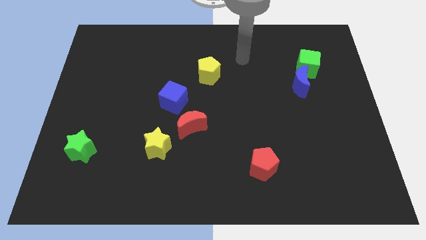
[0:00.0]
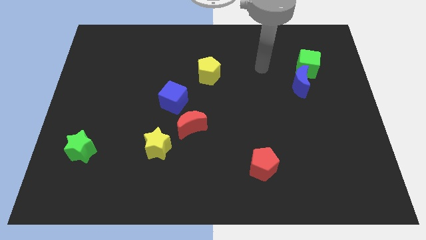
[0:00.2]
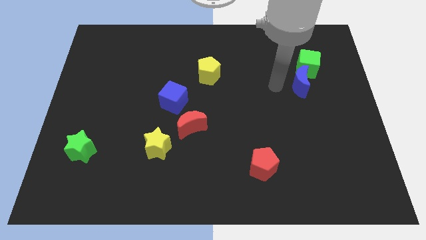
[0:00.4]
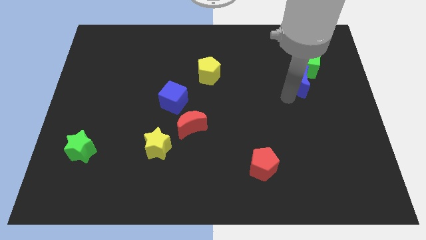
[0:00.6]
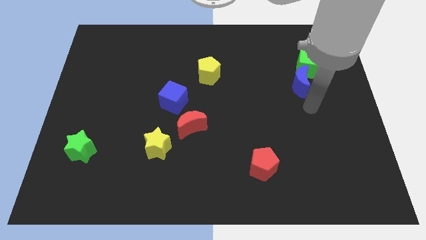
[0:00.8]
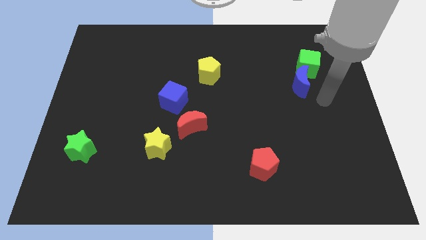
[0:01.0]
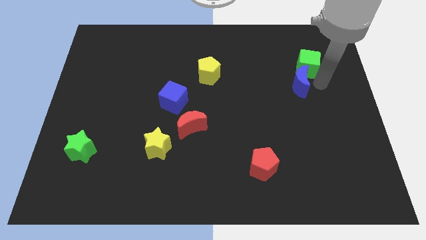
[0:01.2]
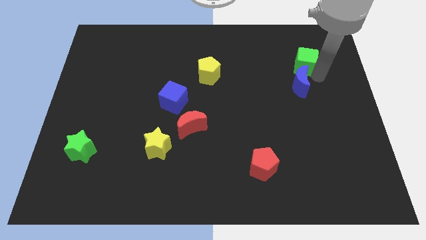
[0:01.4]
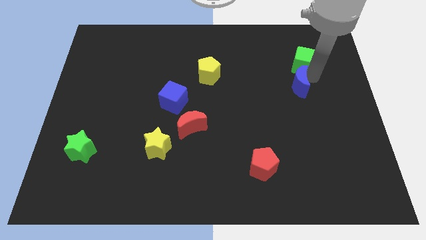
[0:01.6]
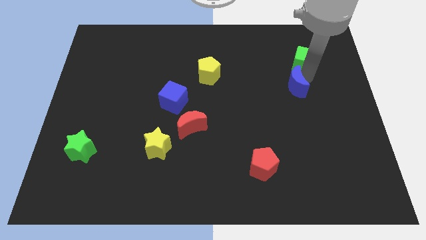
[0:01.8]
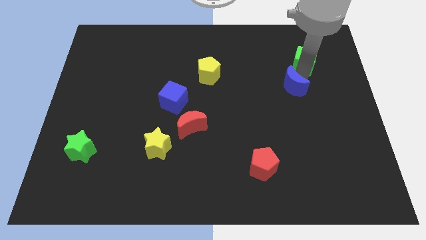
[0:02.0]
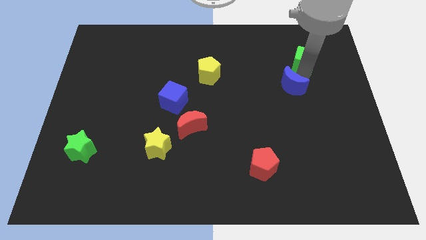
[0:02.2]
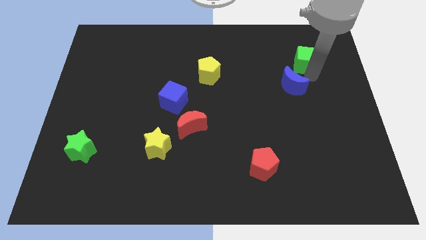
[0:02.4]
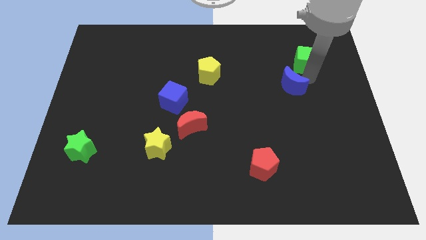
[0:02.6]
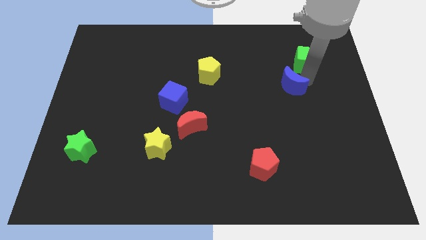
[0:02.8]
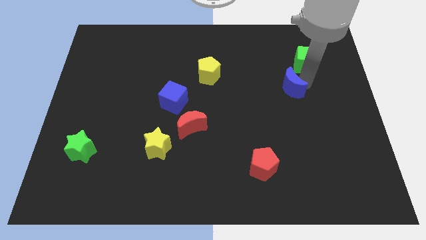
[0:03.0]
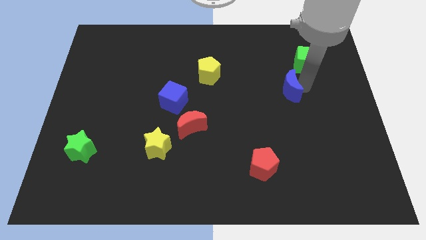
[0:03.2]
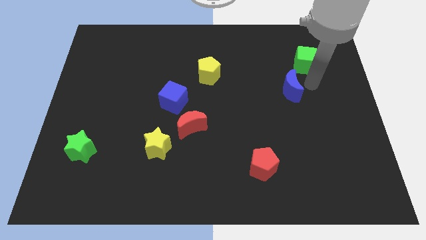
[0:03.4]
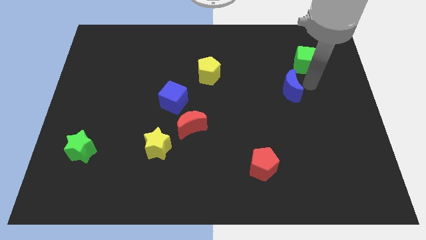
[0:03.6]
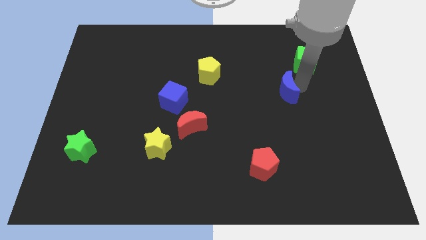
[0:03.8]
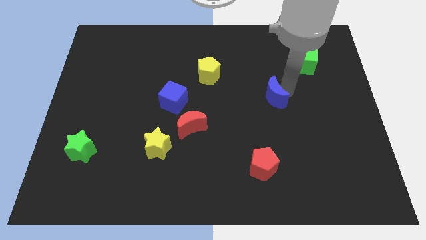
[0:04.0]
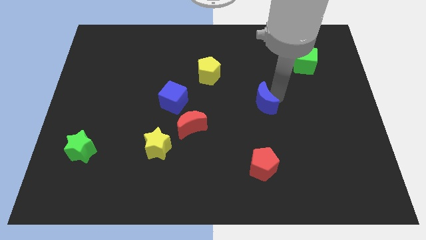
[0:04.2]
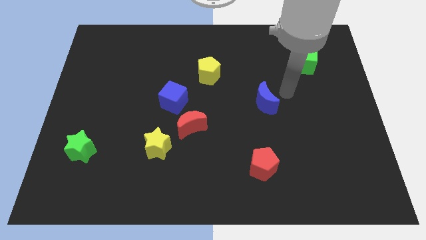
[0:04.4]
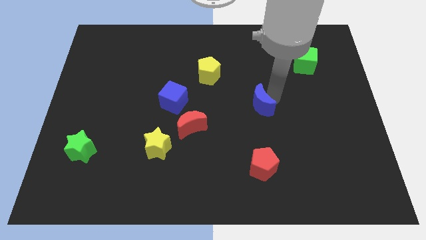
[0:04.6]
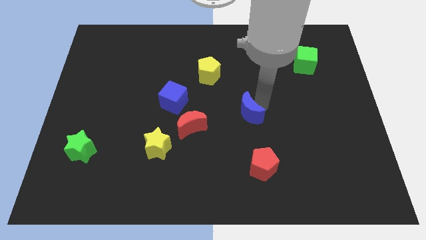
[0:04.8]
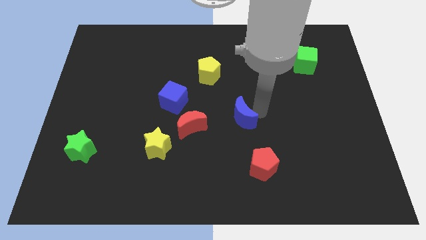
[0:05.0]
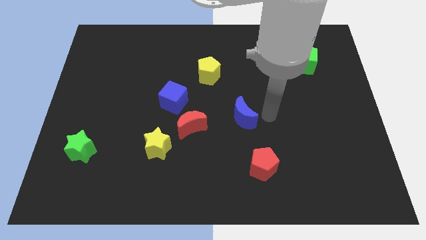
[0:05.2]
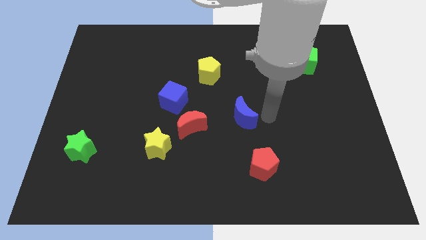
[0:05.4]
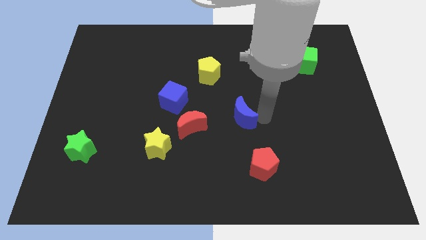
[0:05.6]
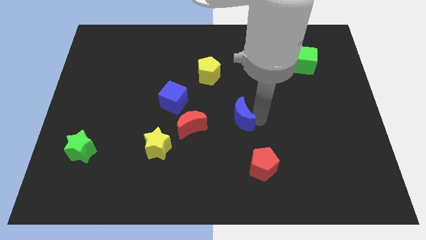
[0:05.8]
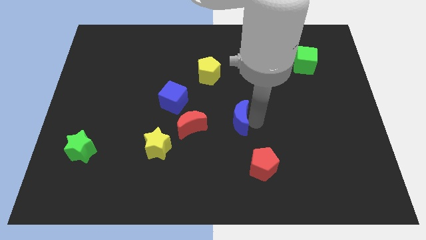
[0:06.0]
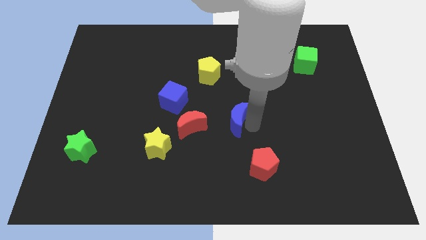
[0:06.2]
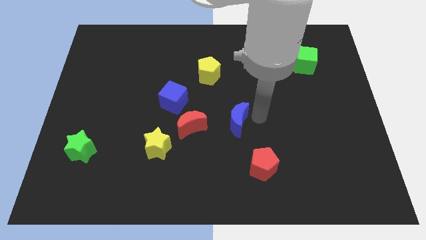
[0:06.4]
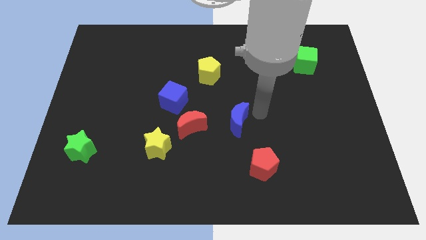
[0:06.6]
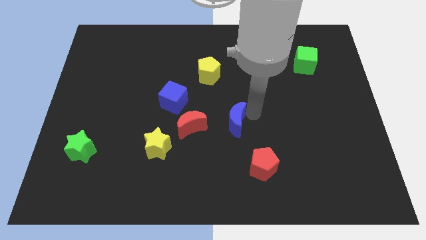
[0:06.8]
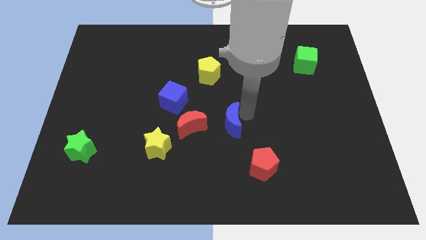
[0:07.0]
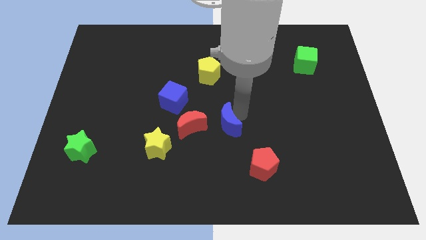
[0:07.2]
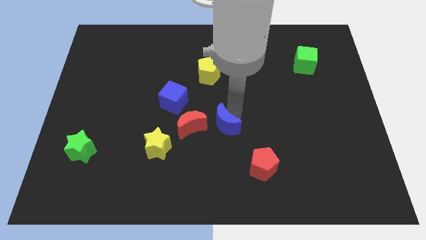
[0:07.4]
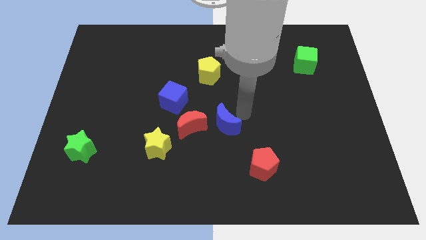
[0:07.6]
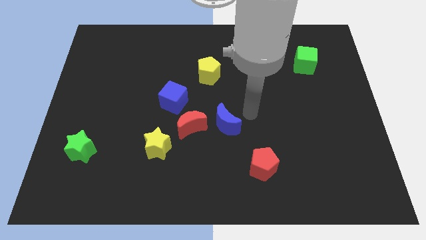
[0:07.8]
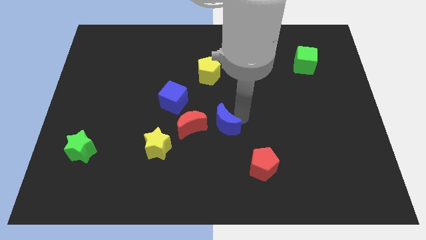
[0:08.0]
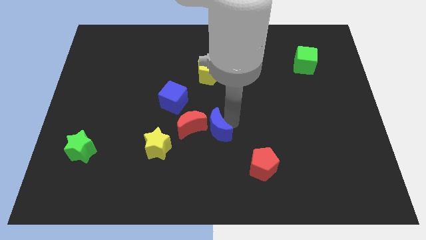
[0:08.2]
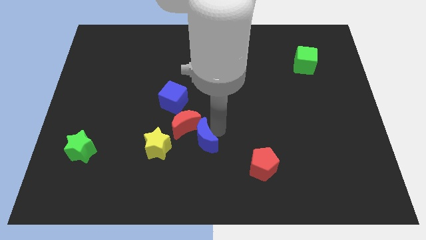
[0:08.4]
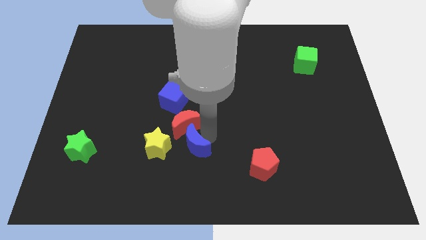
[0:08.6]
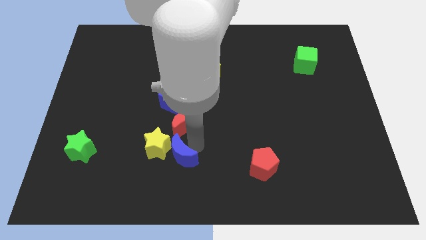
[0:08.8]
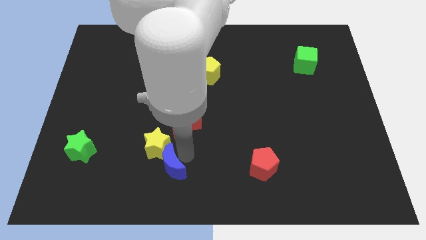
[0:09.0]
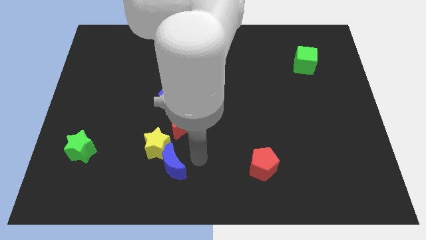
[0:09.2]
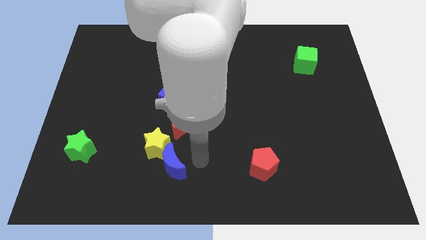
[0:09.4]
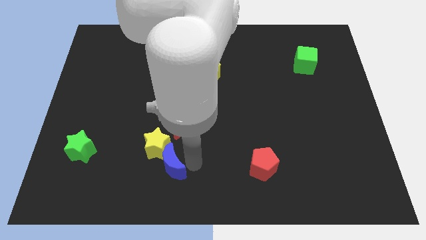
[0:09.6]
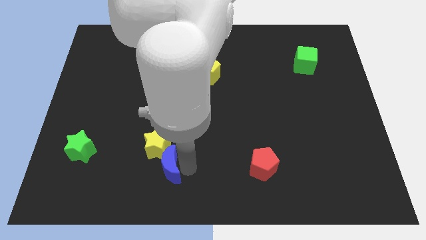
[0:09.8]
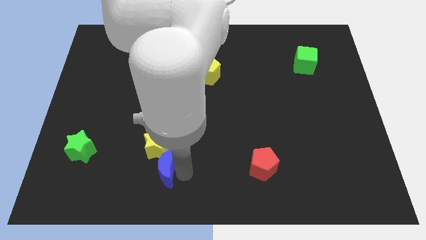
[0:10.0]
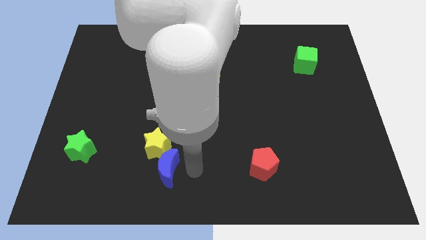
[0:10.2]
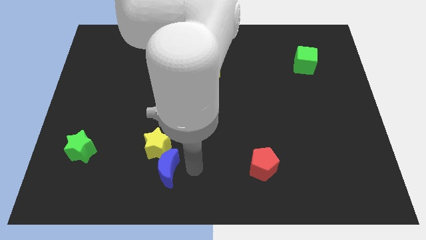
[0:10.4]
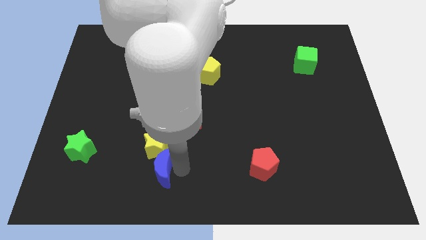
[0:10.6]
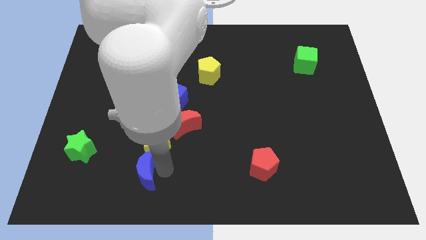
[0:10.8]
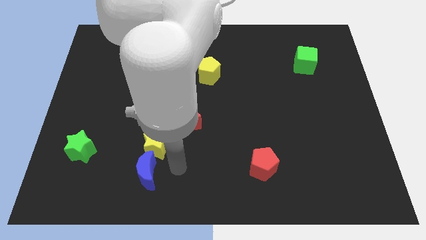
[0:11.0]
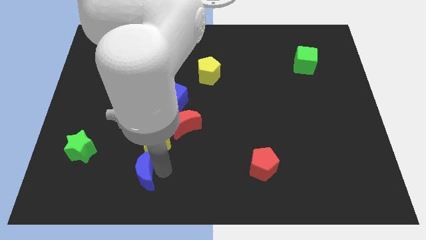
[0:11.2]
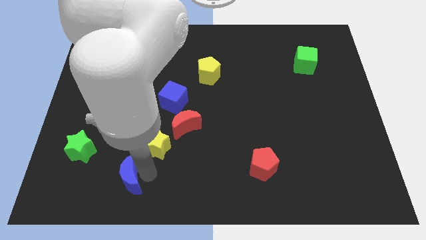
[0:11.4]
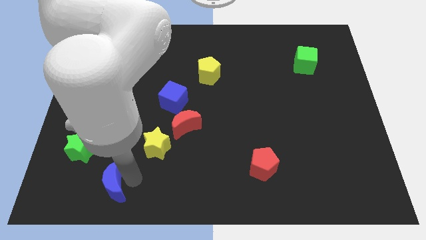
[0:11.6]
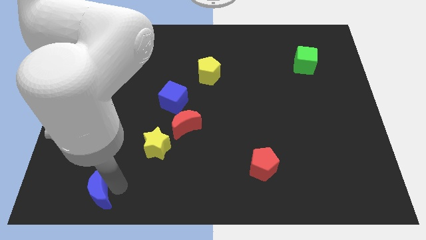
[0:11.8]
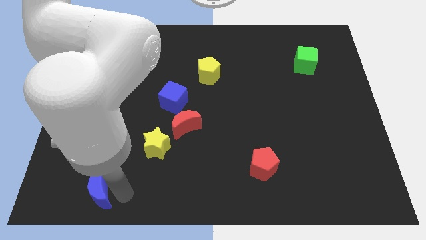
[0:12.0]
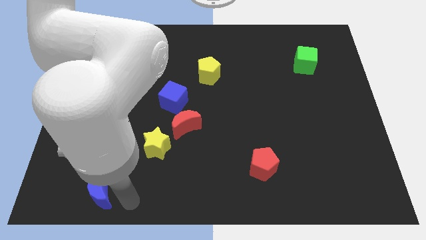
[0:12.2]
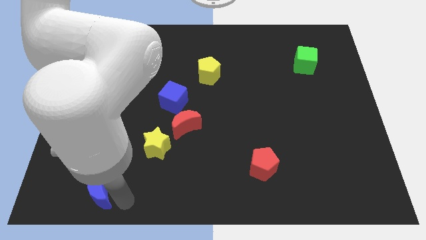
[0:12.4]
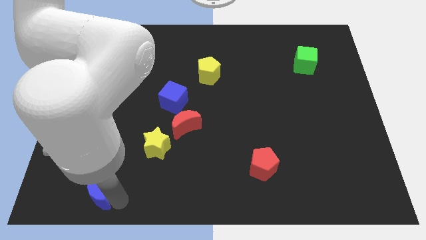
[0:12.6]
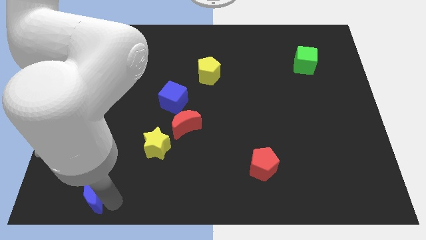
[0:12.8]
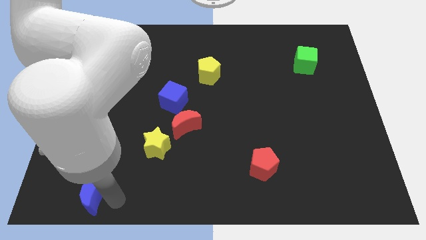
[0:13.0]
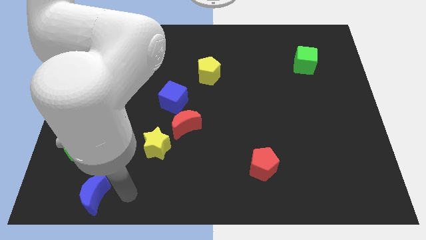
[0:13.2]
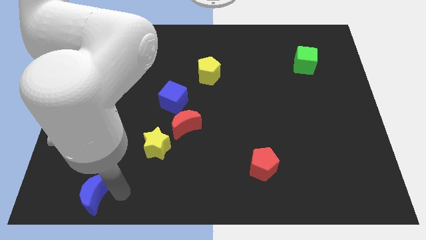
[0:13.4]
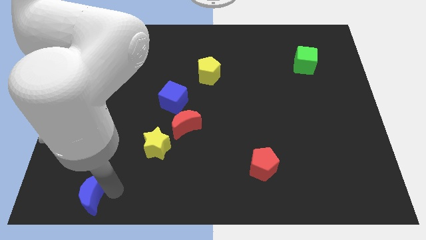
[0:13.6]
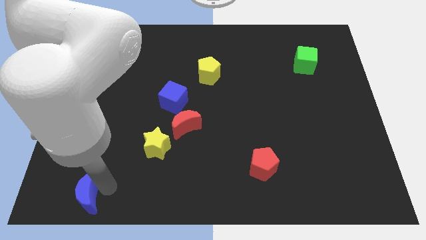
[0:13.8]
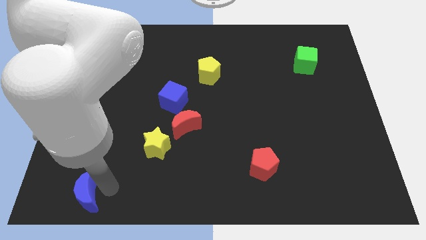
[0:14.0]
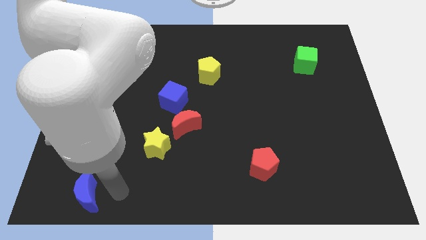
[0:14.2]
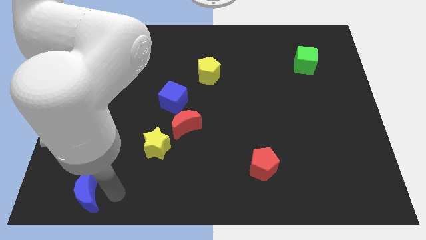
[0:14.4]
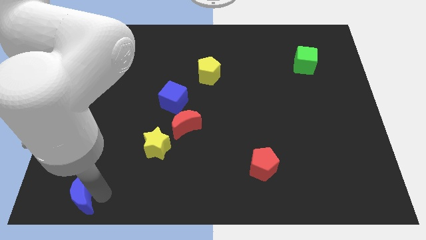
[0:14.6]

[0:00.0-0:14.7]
move the blue moon to the bottom left
